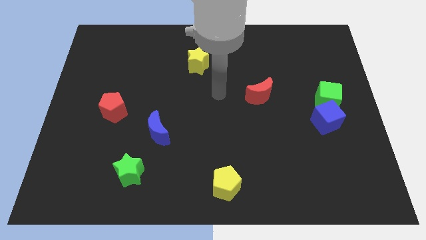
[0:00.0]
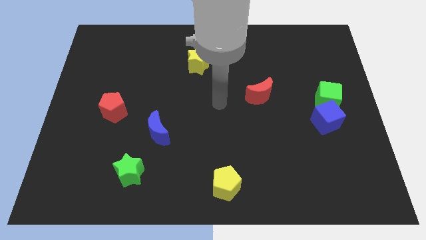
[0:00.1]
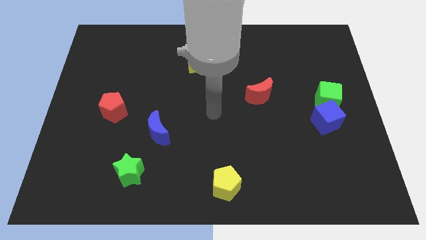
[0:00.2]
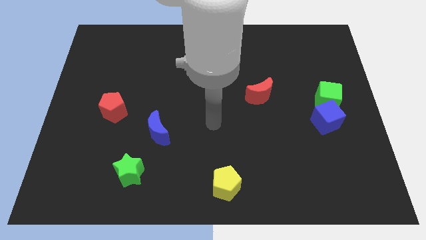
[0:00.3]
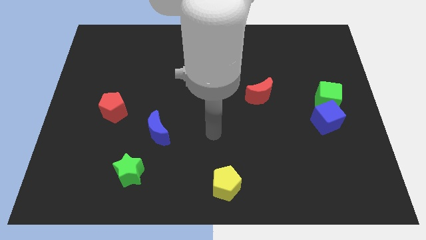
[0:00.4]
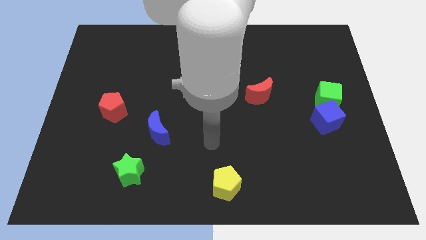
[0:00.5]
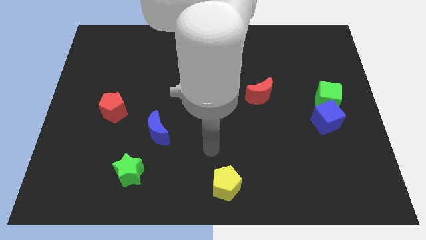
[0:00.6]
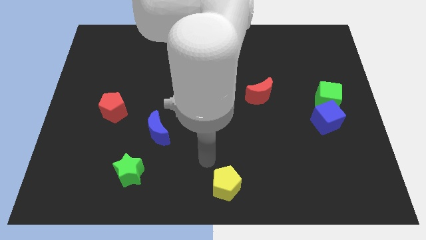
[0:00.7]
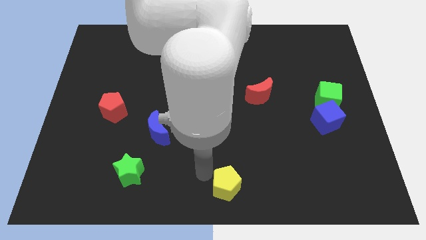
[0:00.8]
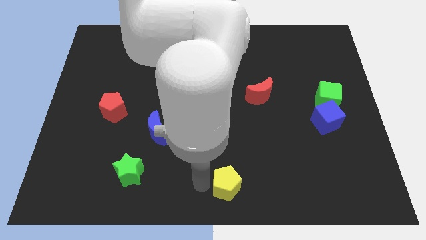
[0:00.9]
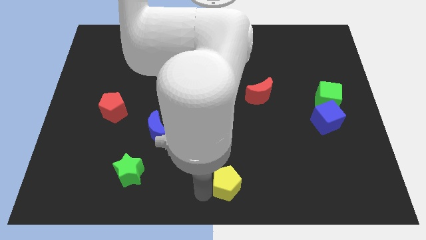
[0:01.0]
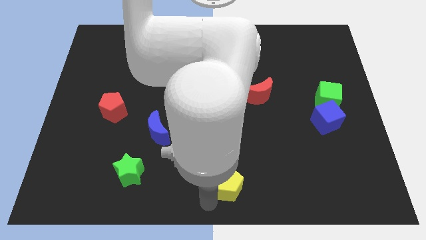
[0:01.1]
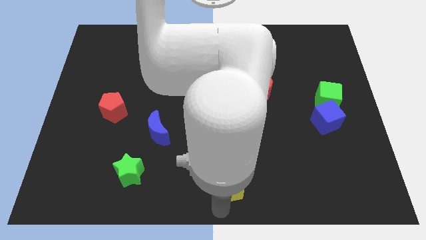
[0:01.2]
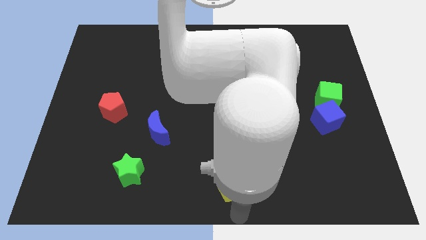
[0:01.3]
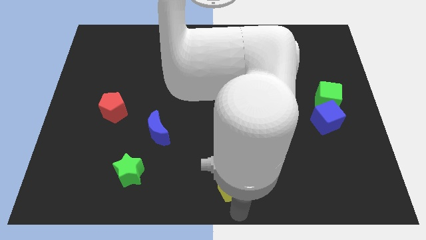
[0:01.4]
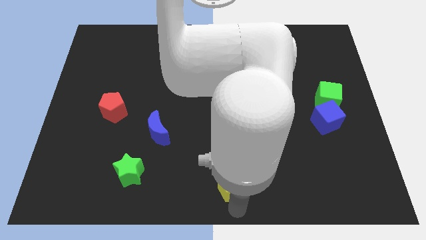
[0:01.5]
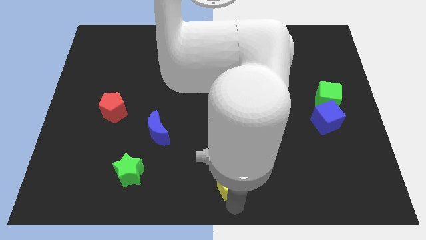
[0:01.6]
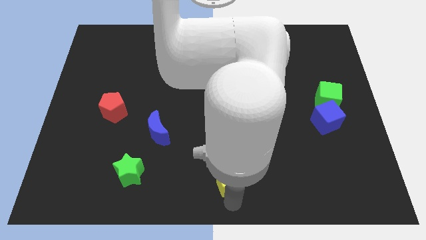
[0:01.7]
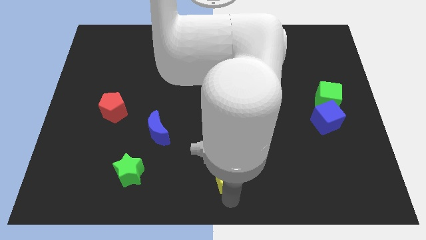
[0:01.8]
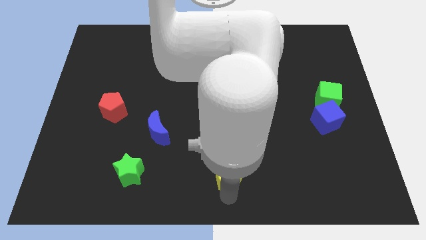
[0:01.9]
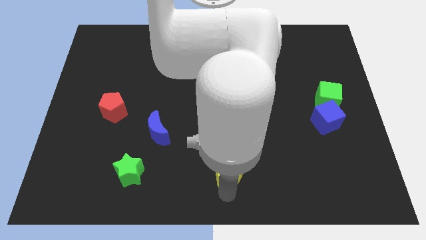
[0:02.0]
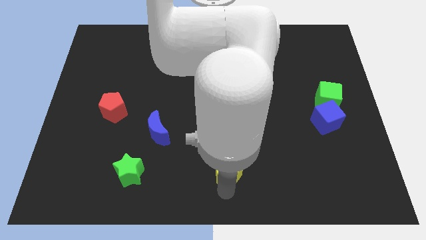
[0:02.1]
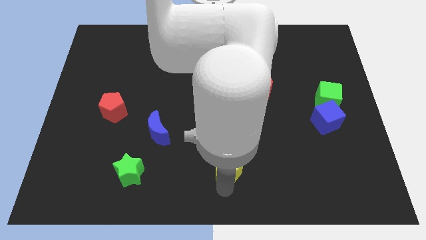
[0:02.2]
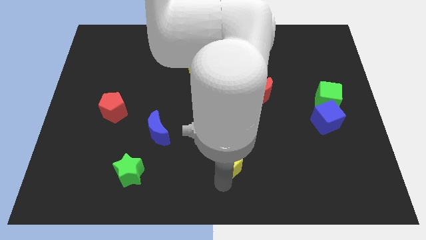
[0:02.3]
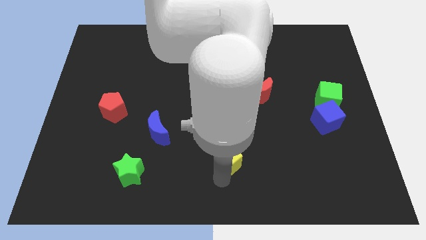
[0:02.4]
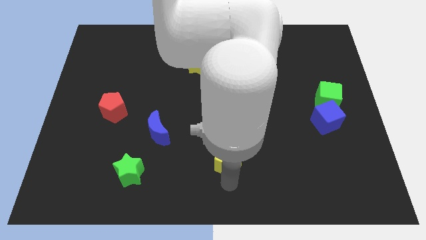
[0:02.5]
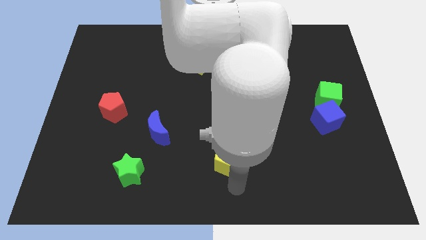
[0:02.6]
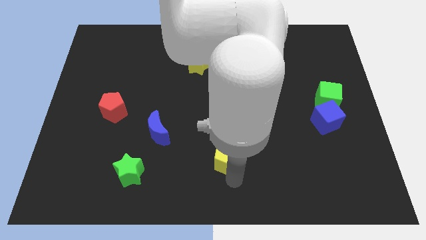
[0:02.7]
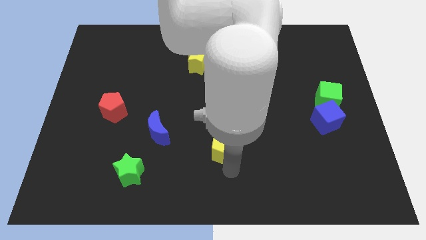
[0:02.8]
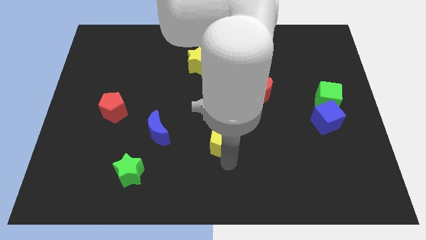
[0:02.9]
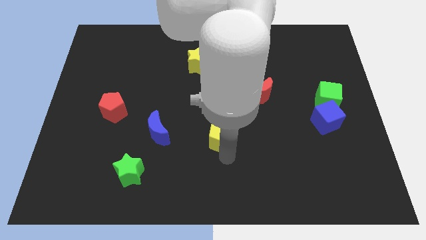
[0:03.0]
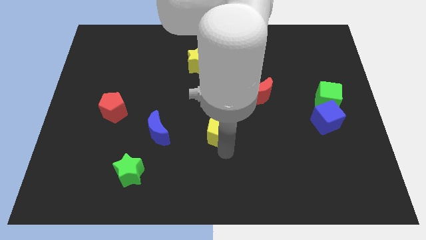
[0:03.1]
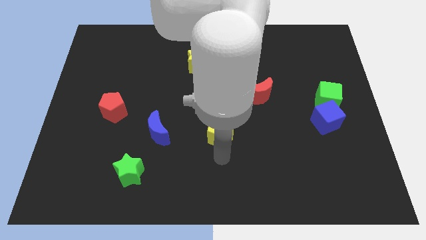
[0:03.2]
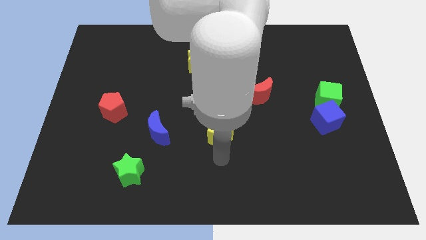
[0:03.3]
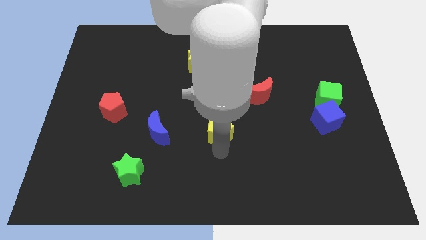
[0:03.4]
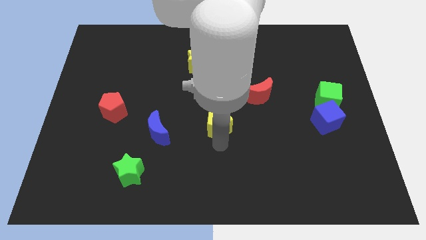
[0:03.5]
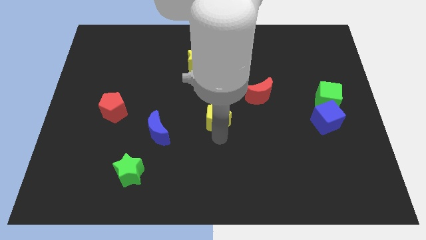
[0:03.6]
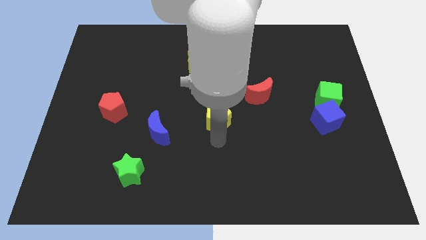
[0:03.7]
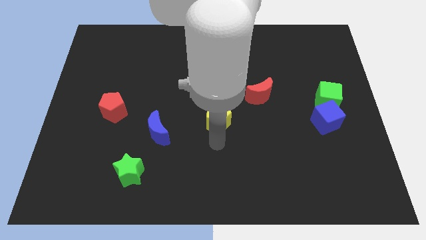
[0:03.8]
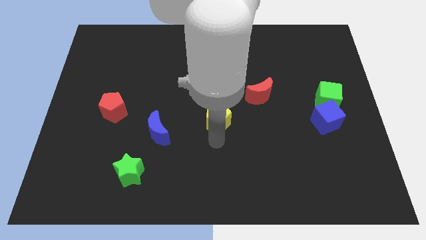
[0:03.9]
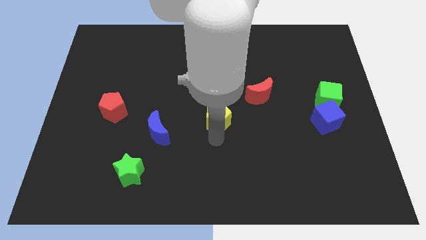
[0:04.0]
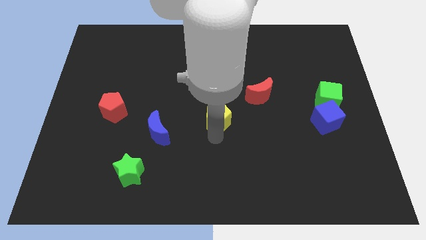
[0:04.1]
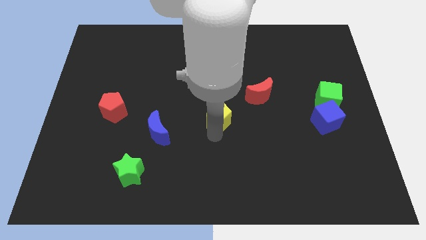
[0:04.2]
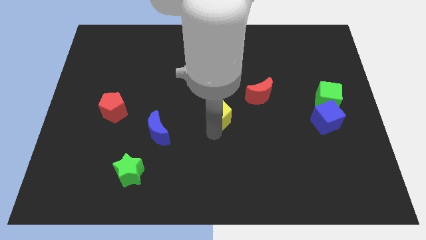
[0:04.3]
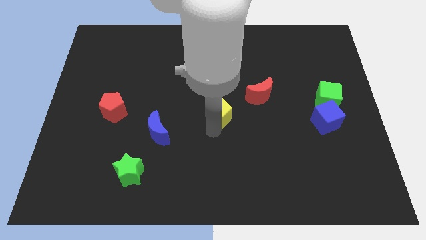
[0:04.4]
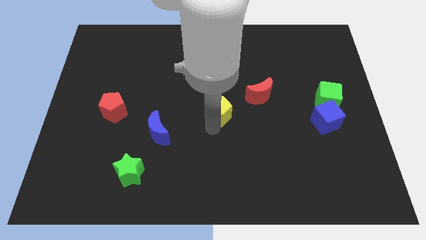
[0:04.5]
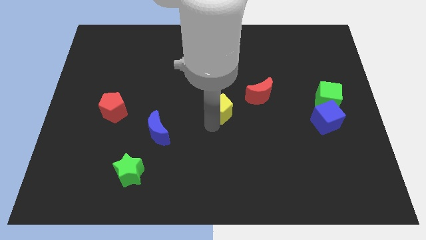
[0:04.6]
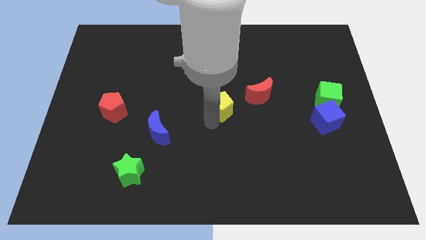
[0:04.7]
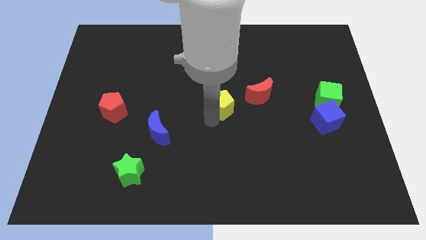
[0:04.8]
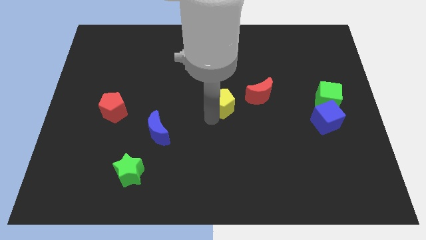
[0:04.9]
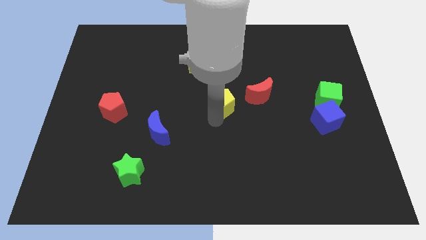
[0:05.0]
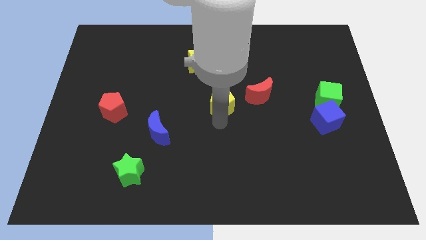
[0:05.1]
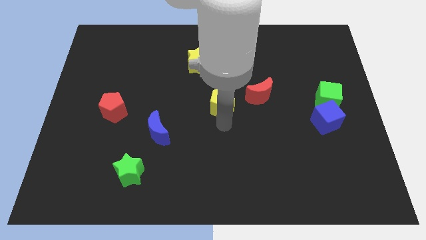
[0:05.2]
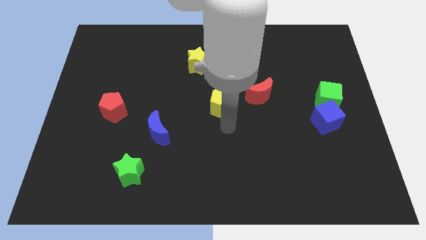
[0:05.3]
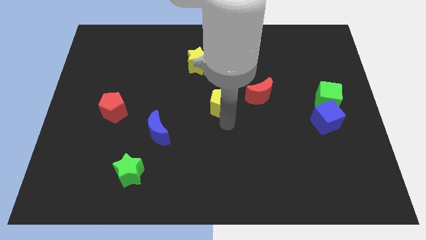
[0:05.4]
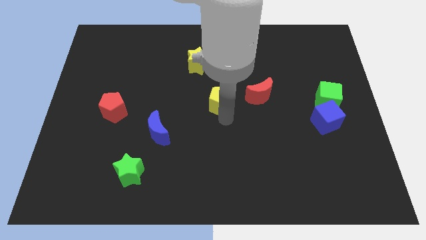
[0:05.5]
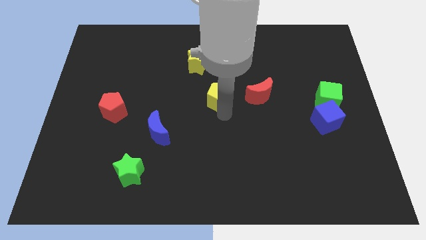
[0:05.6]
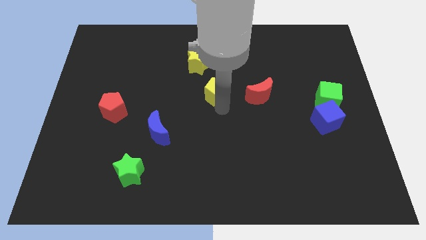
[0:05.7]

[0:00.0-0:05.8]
slide the yellow pentagon to the bottom right side of the yellow star

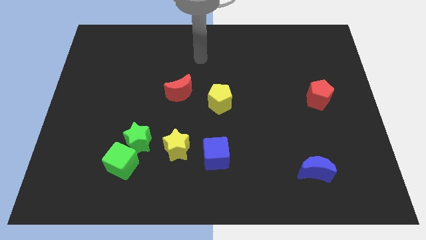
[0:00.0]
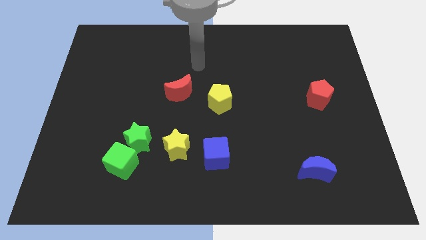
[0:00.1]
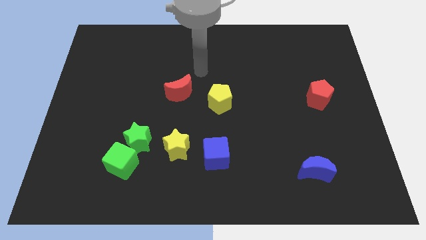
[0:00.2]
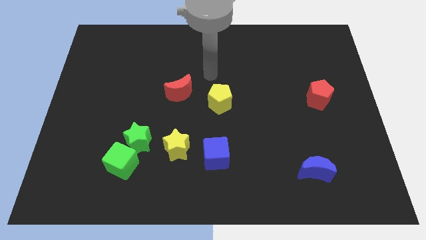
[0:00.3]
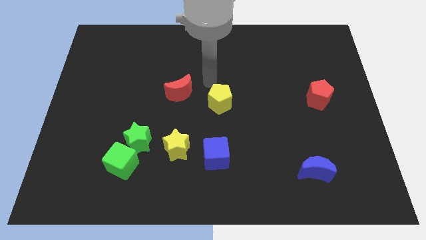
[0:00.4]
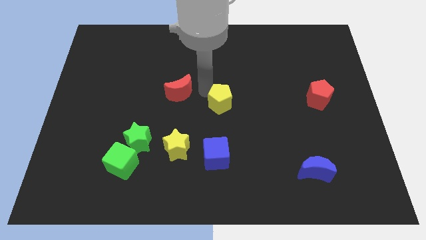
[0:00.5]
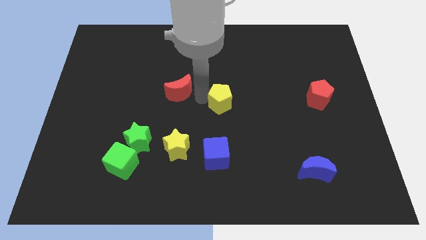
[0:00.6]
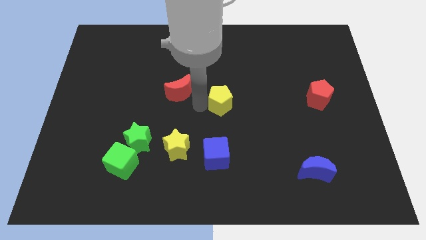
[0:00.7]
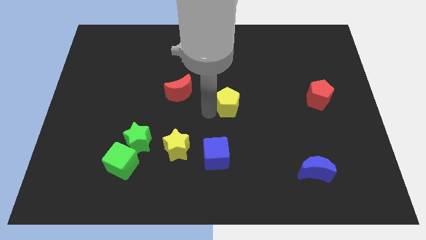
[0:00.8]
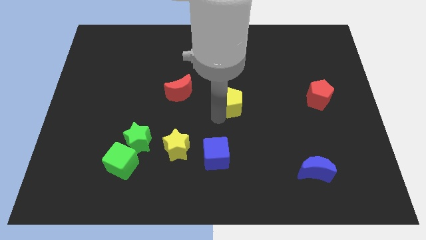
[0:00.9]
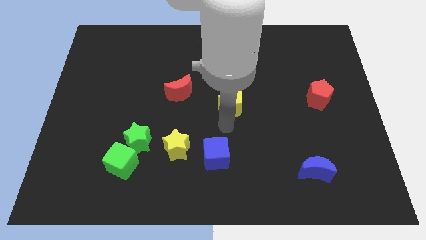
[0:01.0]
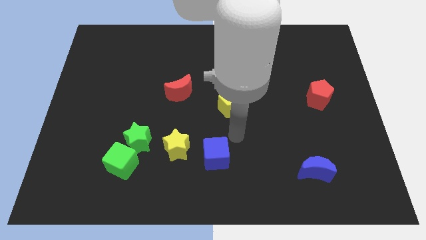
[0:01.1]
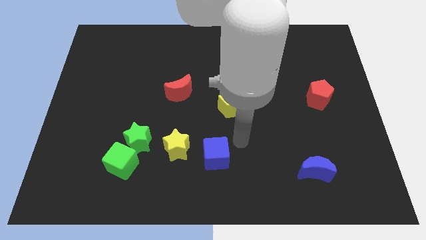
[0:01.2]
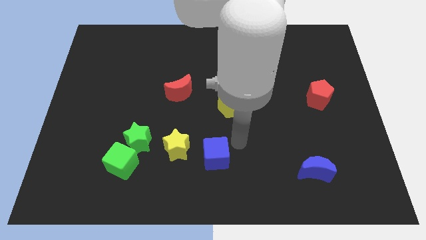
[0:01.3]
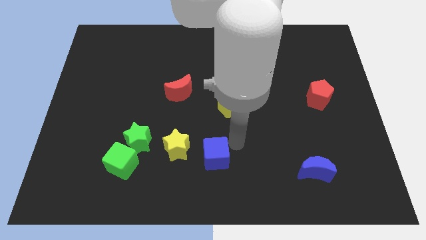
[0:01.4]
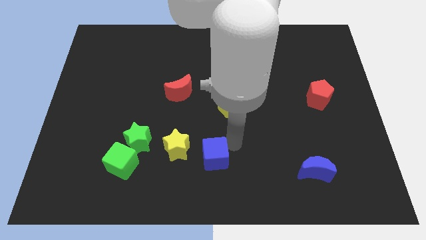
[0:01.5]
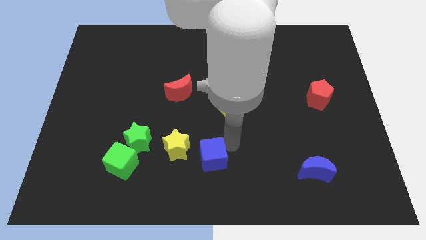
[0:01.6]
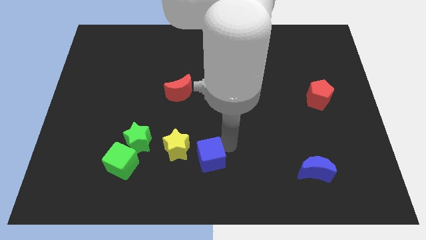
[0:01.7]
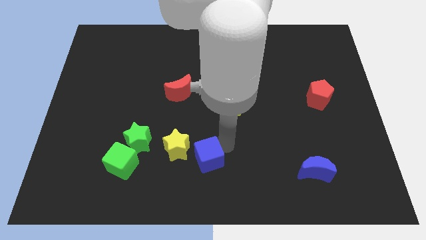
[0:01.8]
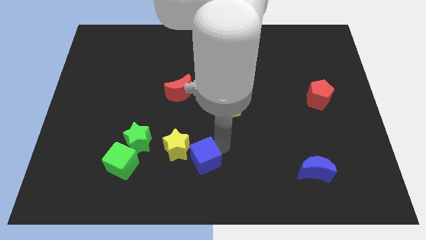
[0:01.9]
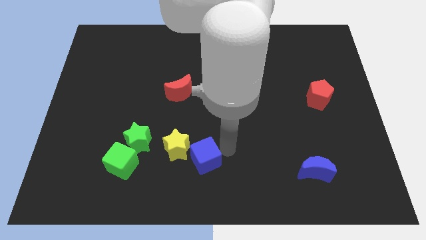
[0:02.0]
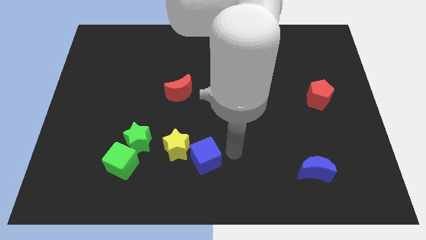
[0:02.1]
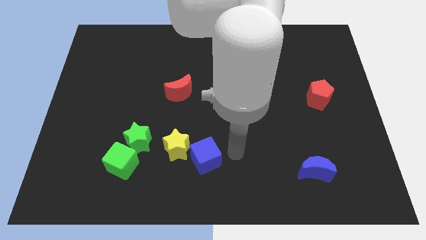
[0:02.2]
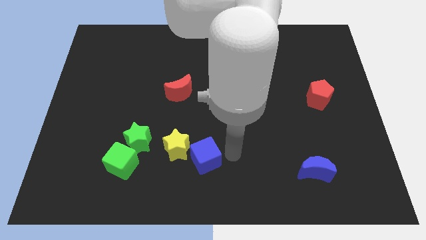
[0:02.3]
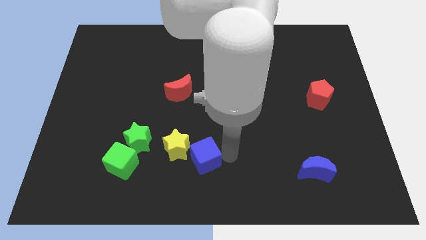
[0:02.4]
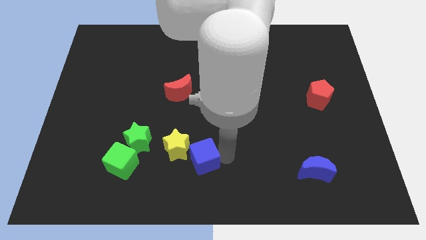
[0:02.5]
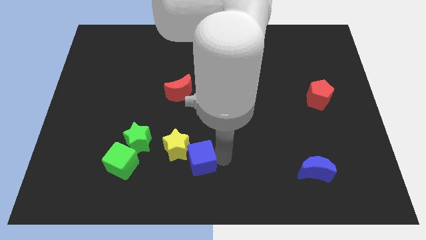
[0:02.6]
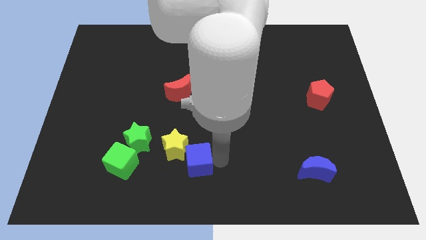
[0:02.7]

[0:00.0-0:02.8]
move the blue cube to the right side of the green cube
